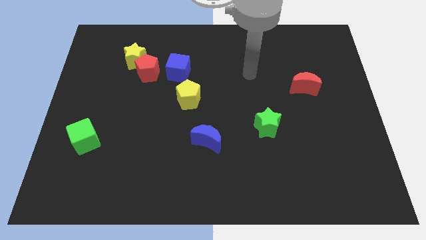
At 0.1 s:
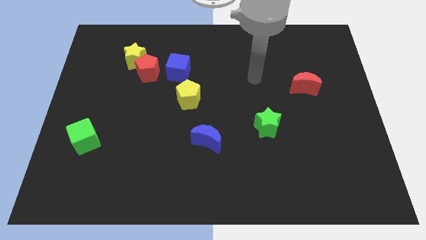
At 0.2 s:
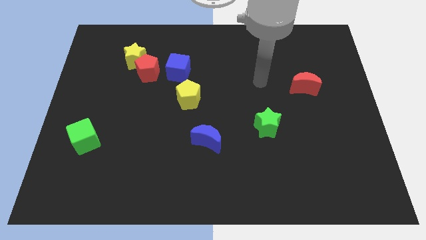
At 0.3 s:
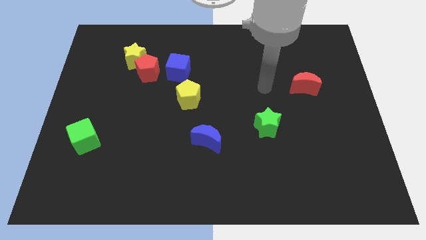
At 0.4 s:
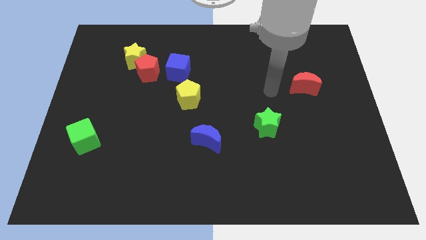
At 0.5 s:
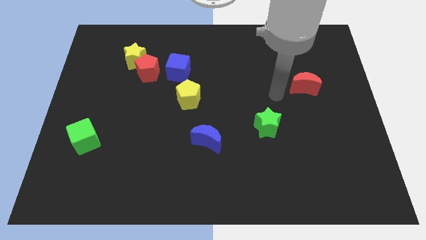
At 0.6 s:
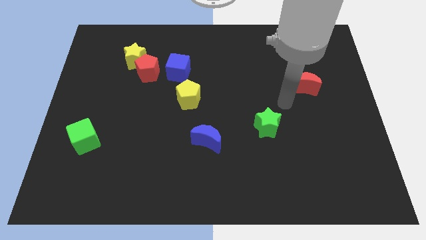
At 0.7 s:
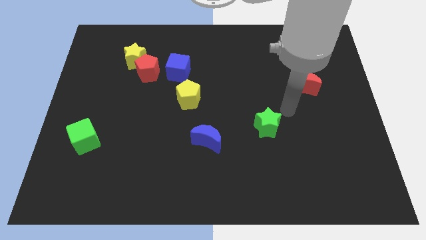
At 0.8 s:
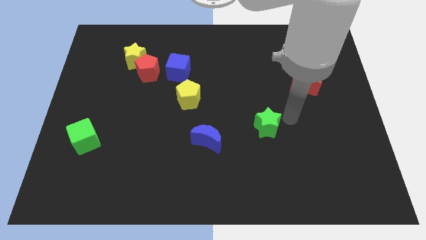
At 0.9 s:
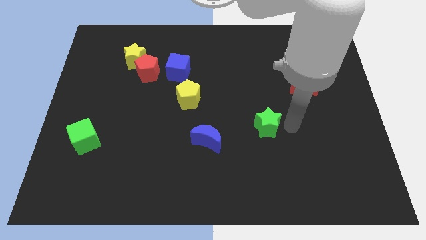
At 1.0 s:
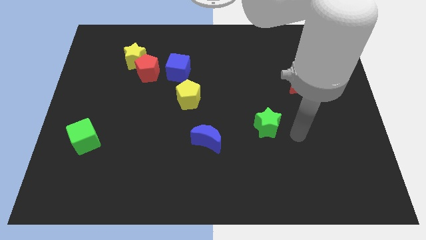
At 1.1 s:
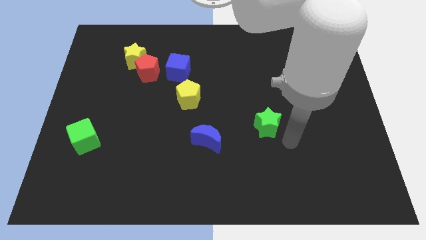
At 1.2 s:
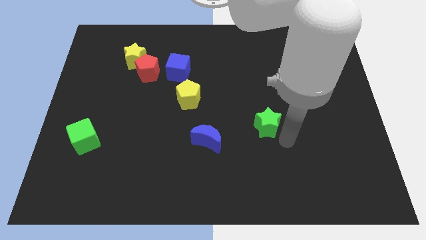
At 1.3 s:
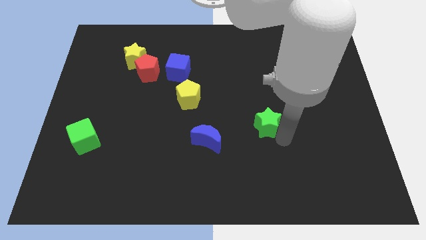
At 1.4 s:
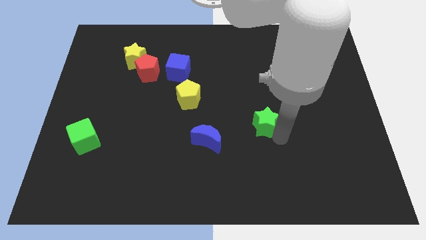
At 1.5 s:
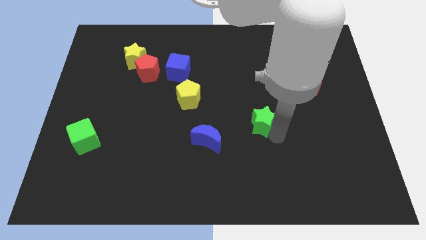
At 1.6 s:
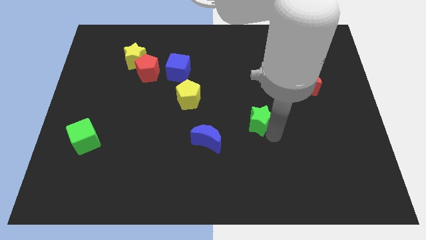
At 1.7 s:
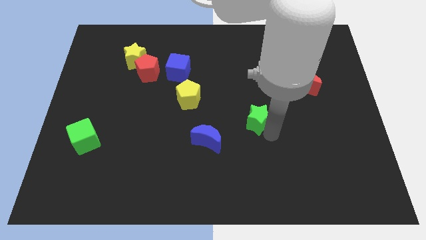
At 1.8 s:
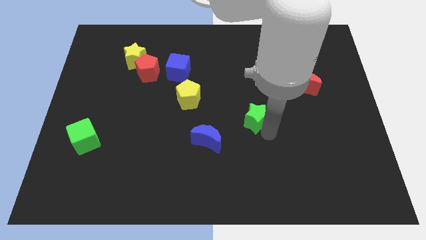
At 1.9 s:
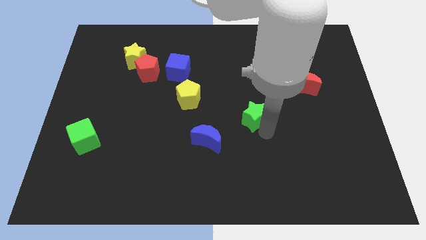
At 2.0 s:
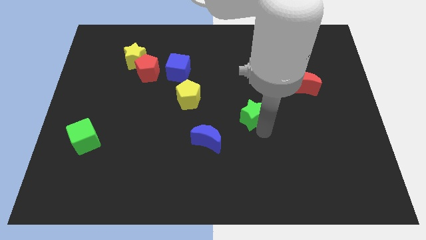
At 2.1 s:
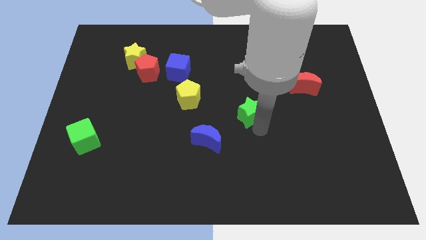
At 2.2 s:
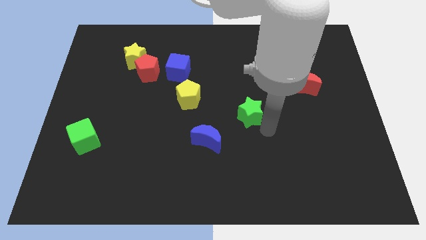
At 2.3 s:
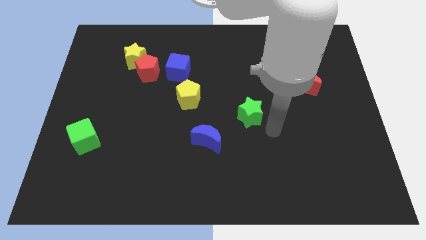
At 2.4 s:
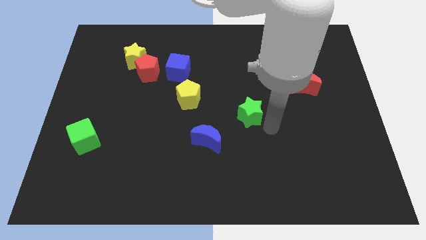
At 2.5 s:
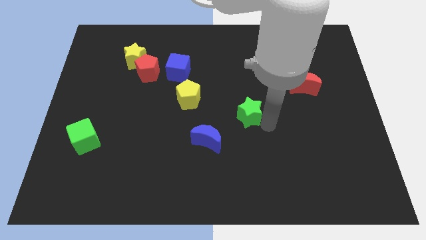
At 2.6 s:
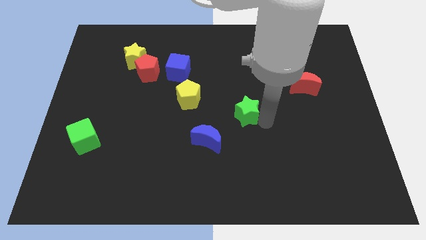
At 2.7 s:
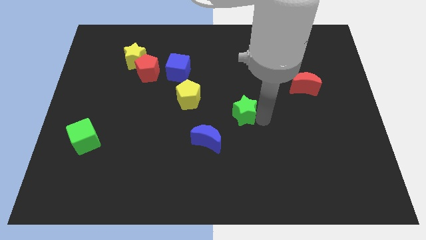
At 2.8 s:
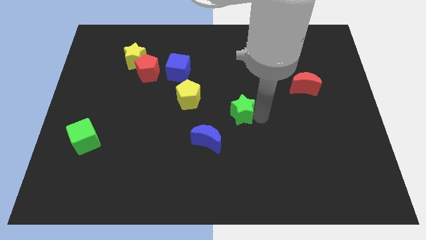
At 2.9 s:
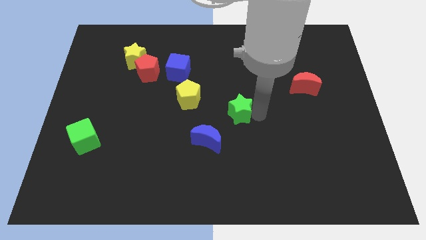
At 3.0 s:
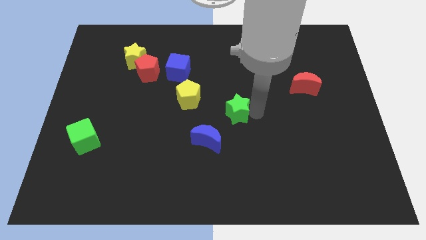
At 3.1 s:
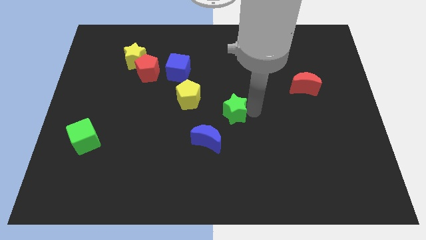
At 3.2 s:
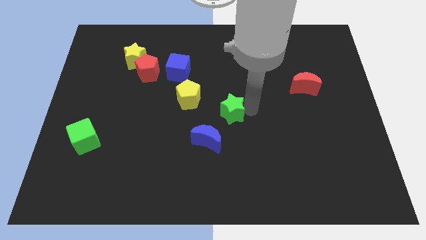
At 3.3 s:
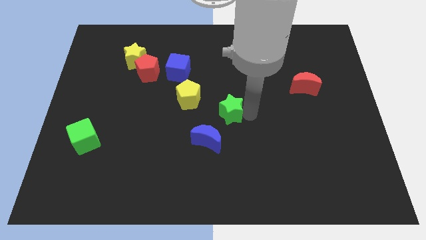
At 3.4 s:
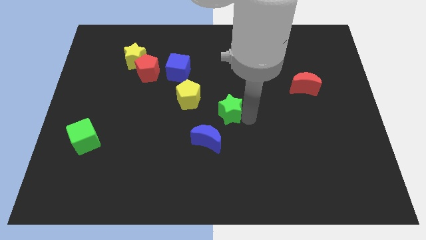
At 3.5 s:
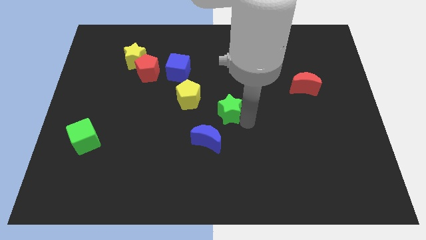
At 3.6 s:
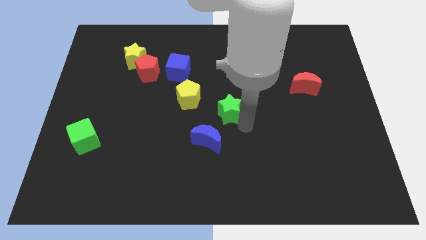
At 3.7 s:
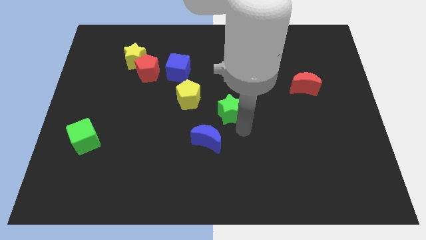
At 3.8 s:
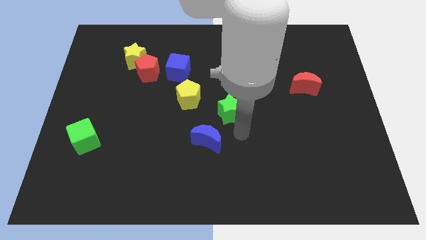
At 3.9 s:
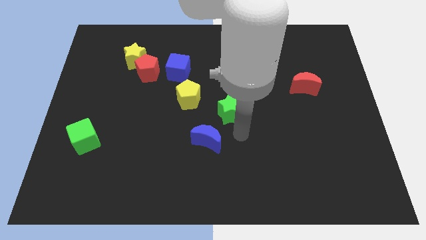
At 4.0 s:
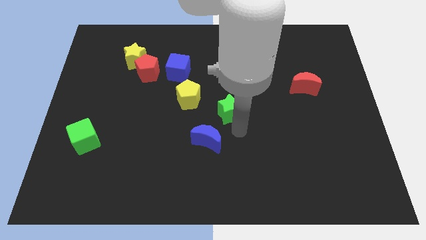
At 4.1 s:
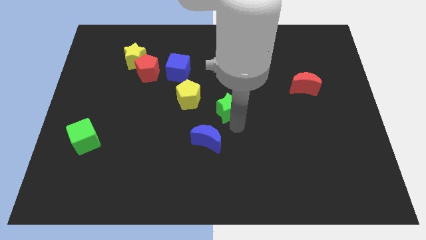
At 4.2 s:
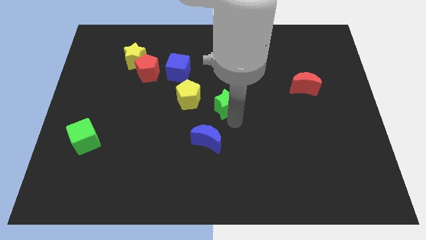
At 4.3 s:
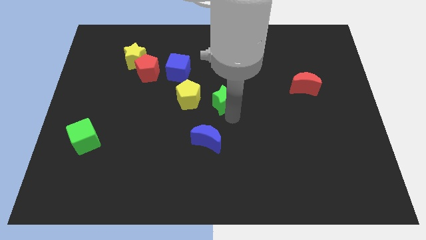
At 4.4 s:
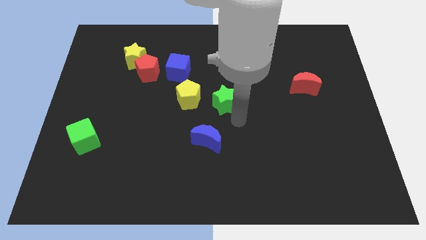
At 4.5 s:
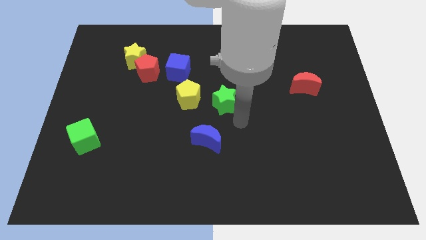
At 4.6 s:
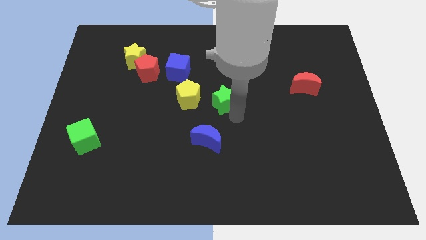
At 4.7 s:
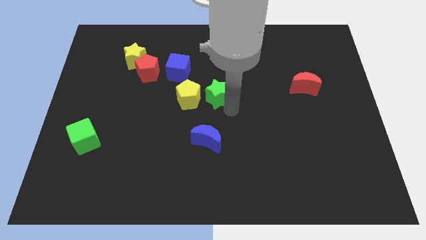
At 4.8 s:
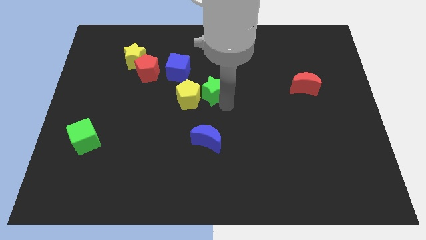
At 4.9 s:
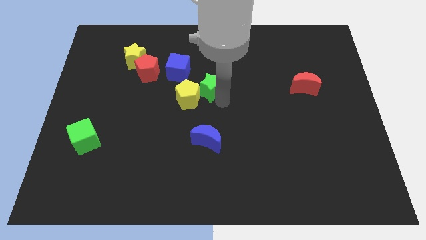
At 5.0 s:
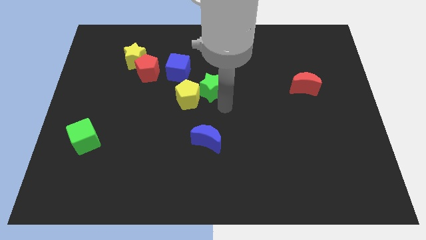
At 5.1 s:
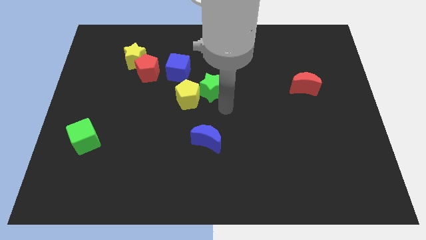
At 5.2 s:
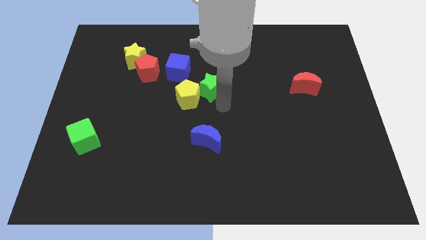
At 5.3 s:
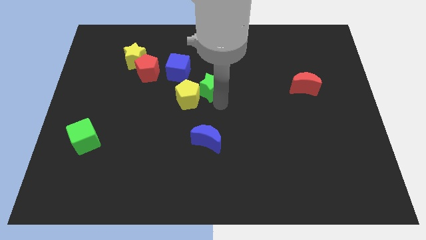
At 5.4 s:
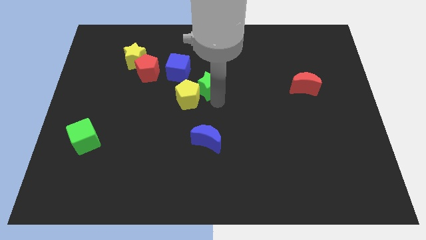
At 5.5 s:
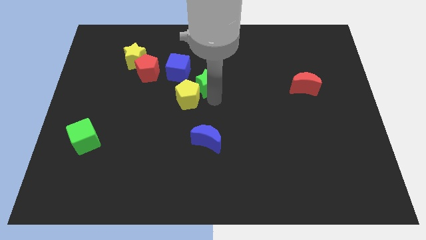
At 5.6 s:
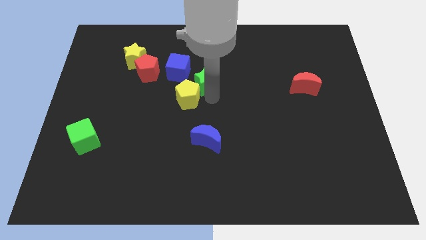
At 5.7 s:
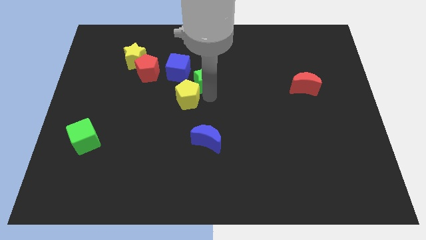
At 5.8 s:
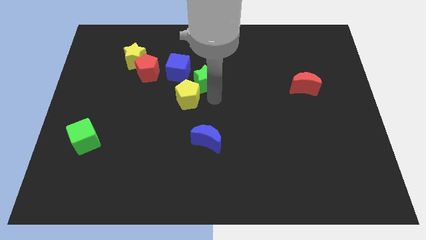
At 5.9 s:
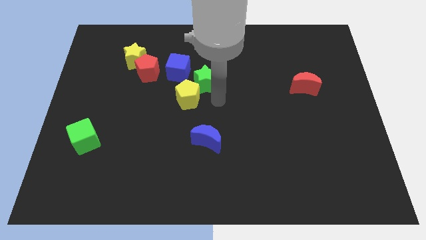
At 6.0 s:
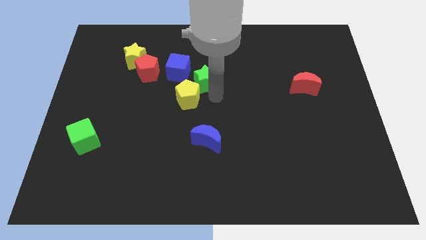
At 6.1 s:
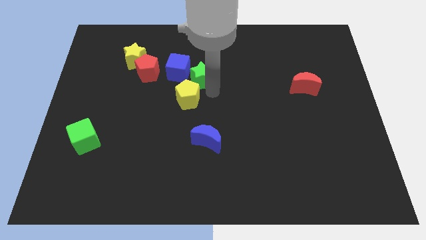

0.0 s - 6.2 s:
push the green star diagonally upwards and left

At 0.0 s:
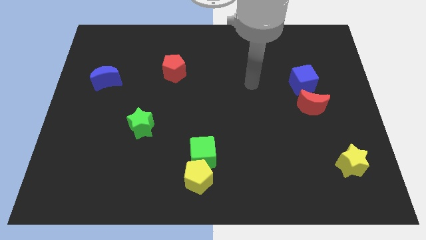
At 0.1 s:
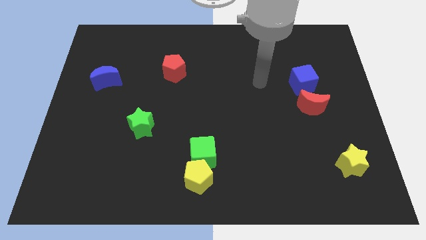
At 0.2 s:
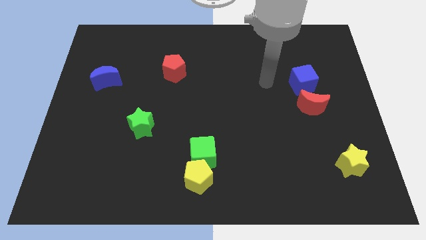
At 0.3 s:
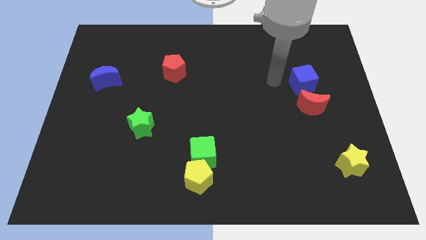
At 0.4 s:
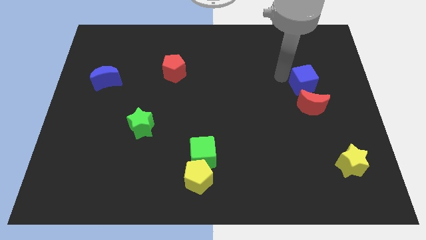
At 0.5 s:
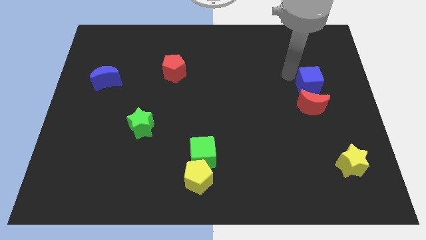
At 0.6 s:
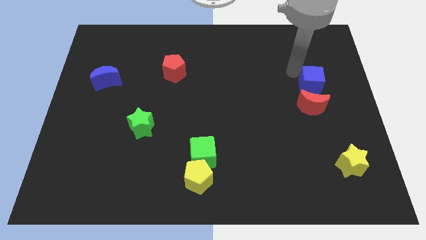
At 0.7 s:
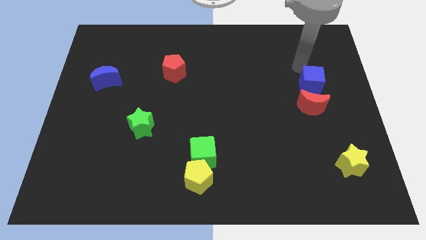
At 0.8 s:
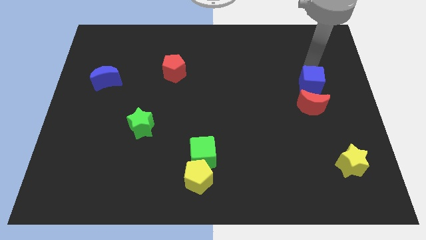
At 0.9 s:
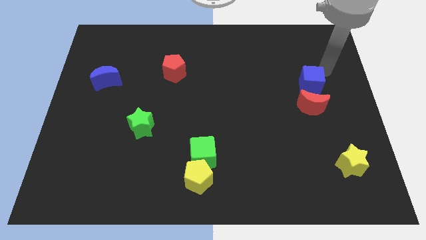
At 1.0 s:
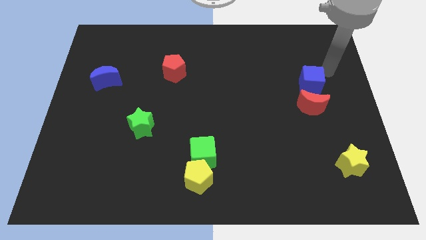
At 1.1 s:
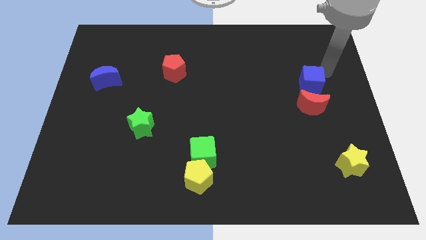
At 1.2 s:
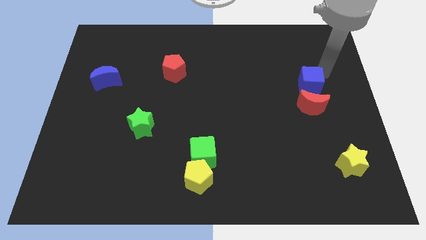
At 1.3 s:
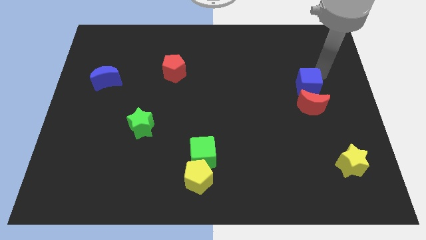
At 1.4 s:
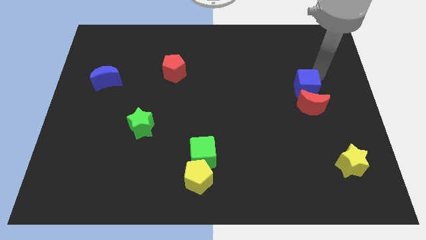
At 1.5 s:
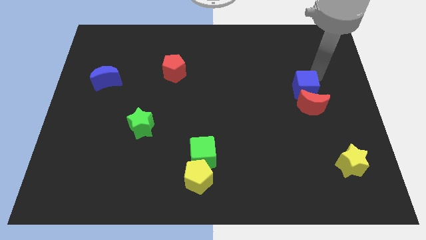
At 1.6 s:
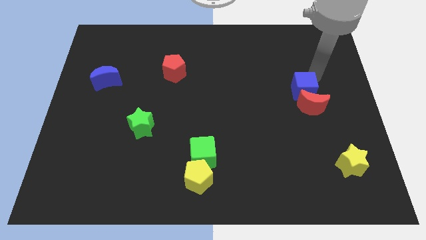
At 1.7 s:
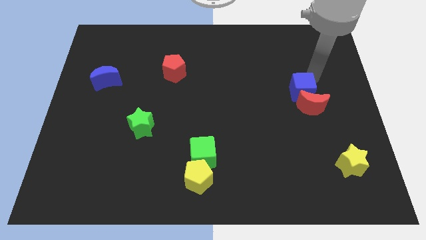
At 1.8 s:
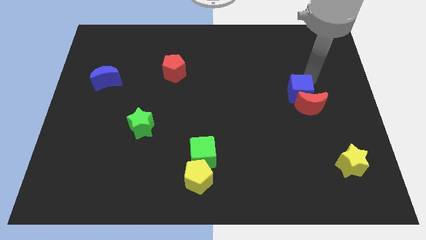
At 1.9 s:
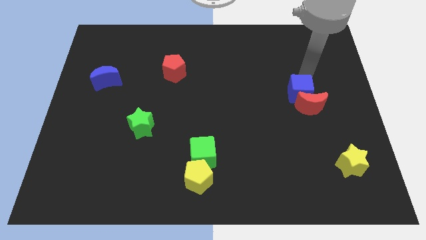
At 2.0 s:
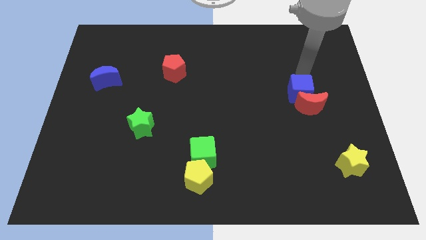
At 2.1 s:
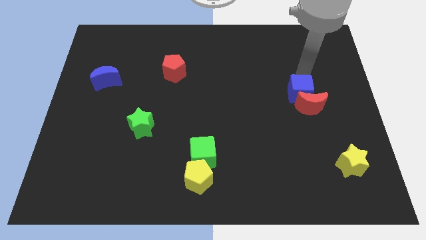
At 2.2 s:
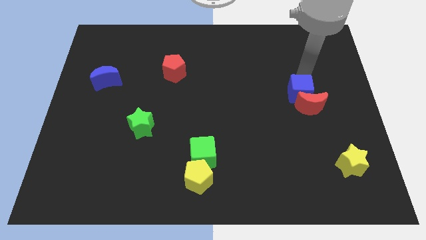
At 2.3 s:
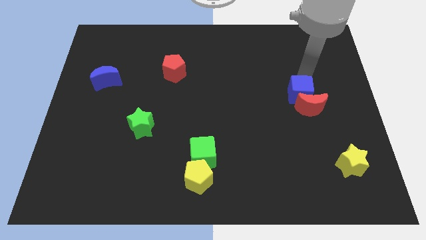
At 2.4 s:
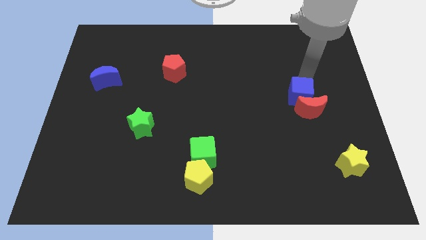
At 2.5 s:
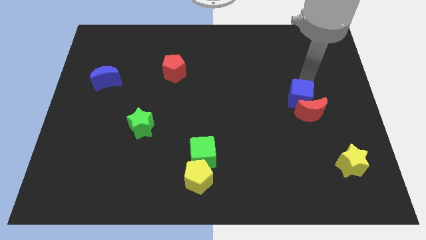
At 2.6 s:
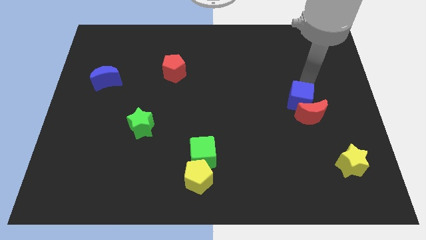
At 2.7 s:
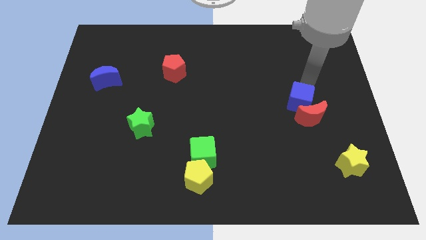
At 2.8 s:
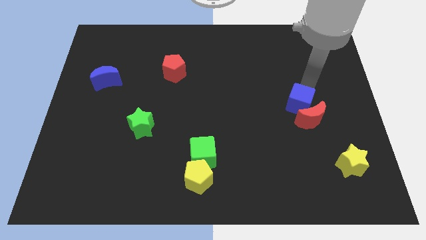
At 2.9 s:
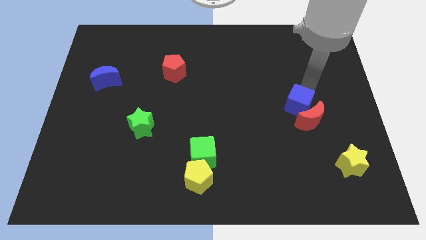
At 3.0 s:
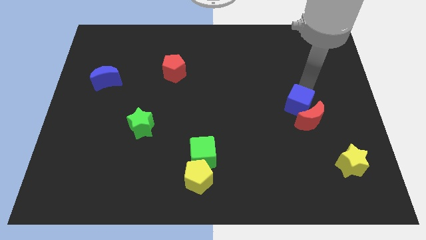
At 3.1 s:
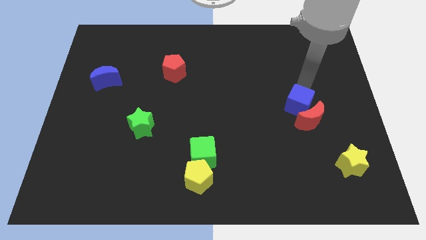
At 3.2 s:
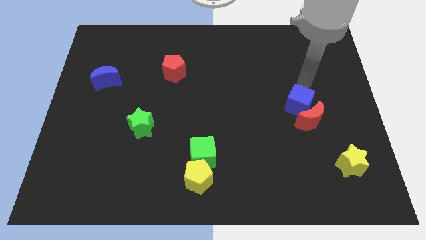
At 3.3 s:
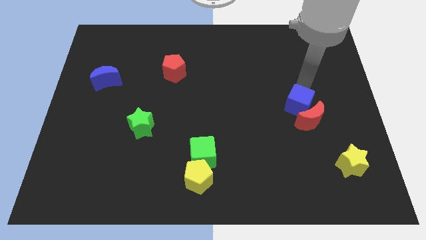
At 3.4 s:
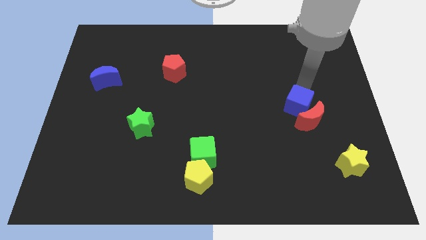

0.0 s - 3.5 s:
slide the blue cube downwards a little
